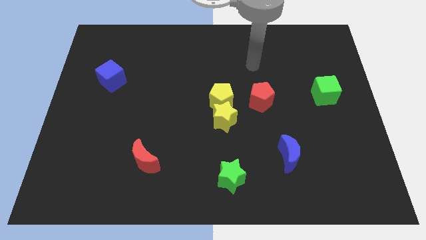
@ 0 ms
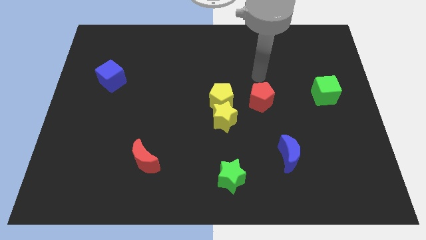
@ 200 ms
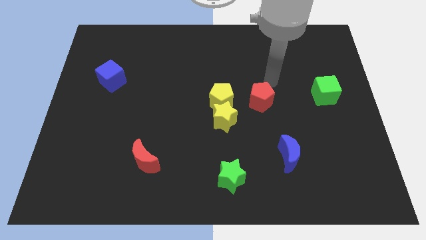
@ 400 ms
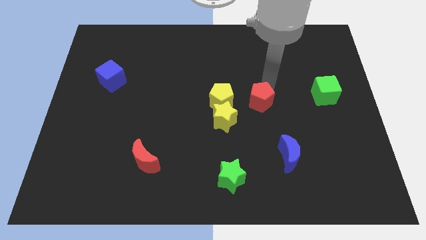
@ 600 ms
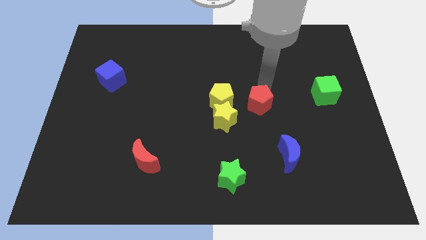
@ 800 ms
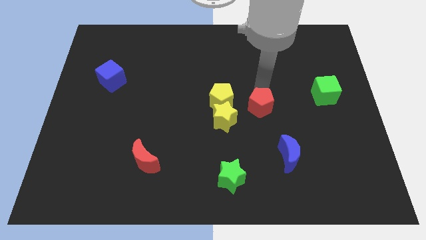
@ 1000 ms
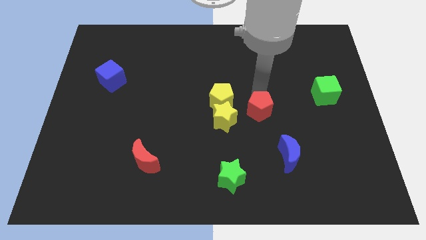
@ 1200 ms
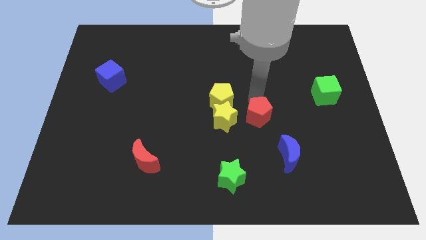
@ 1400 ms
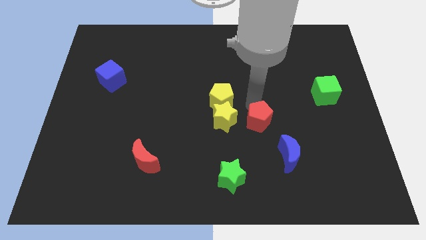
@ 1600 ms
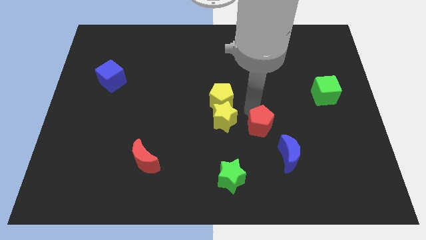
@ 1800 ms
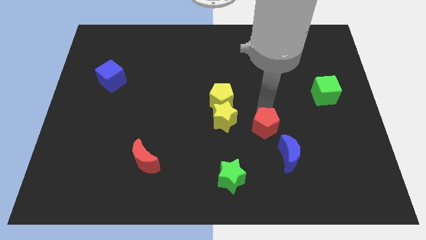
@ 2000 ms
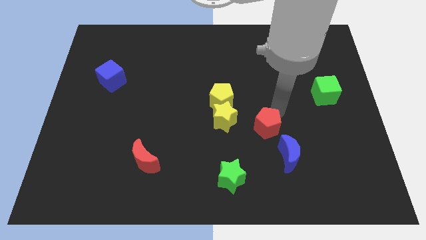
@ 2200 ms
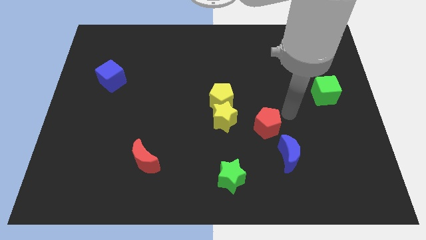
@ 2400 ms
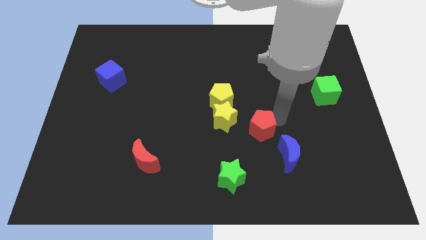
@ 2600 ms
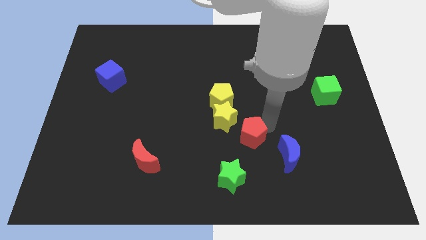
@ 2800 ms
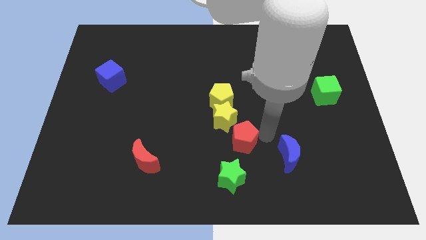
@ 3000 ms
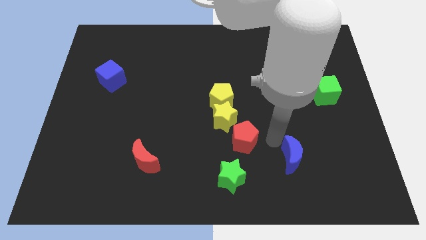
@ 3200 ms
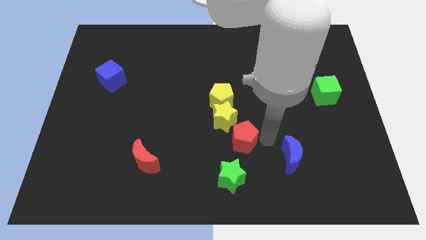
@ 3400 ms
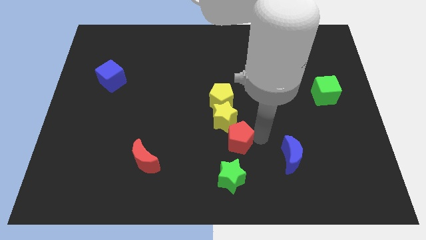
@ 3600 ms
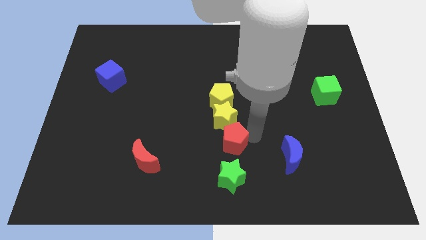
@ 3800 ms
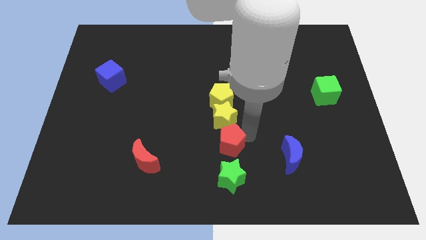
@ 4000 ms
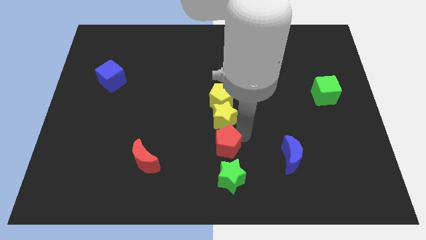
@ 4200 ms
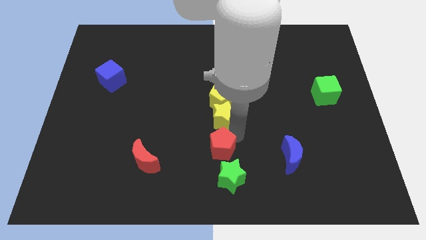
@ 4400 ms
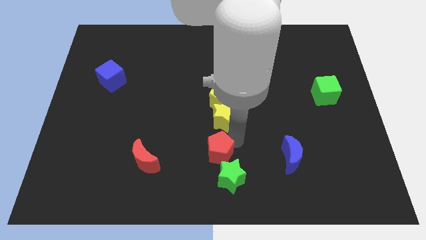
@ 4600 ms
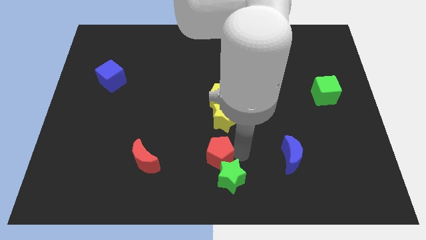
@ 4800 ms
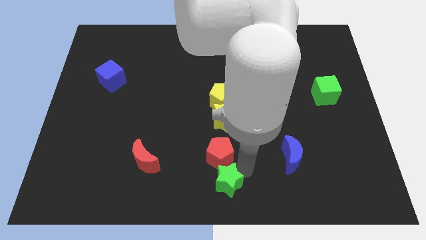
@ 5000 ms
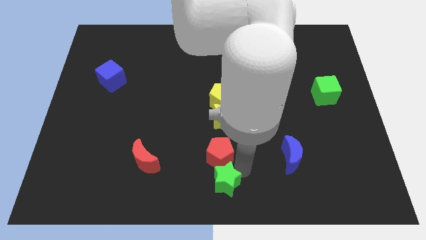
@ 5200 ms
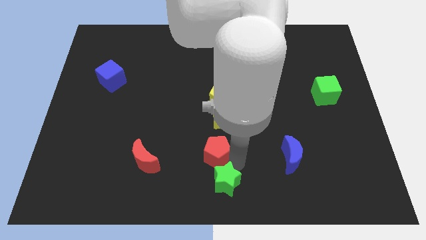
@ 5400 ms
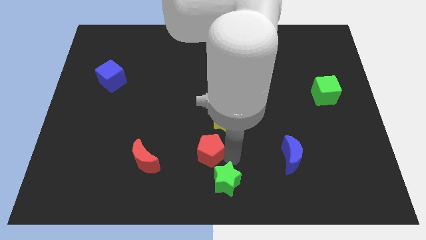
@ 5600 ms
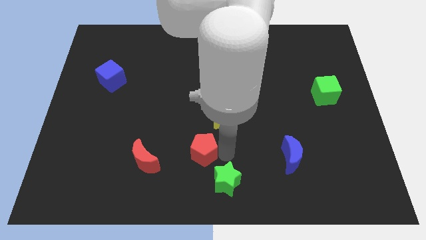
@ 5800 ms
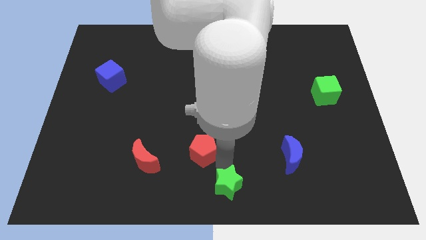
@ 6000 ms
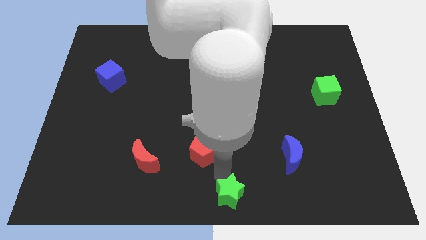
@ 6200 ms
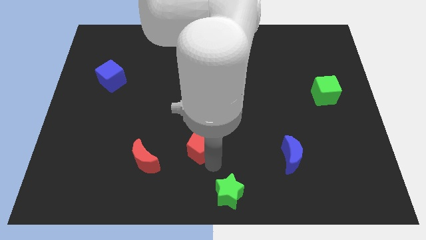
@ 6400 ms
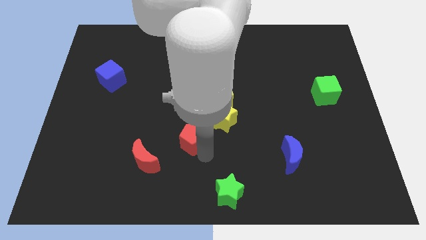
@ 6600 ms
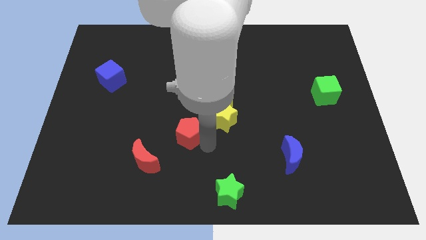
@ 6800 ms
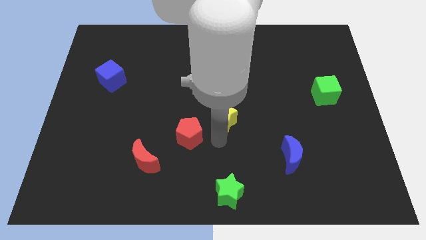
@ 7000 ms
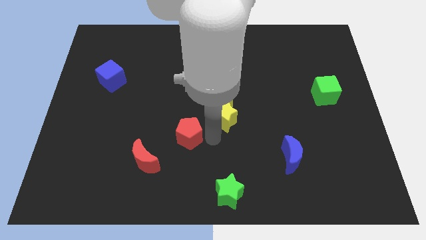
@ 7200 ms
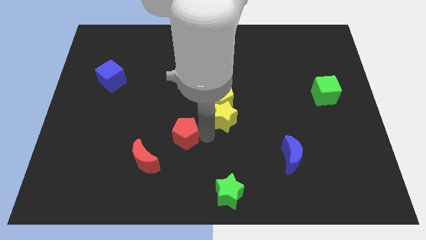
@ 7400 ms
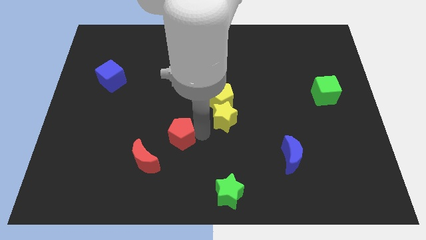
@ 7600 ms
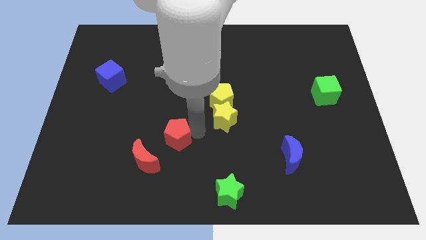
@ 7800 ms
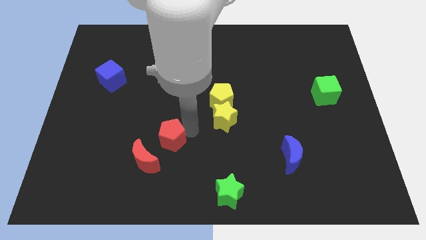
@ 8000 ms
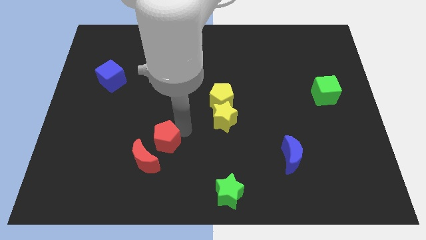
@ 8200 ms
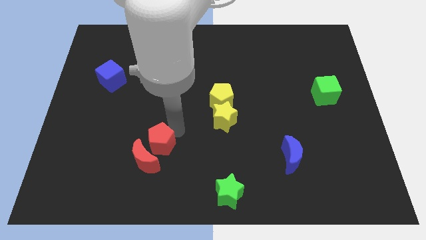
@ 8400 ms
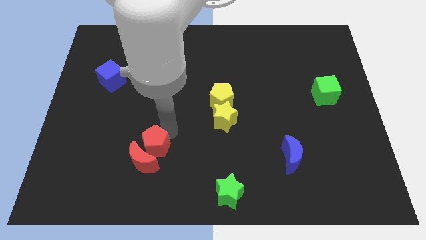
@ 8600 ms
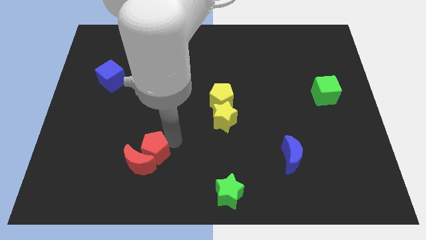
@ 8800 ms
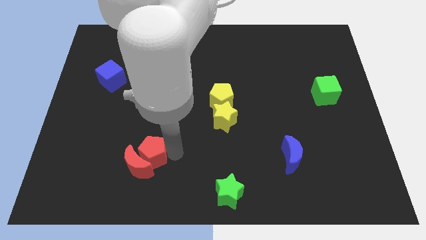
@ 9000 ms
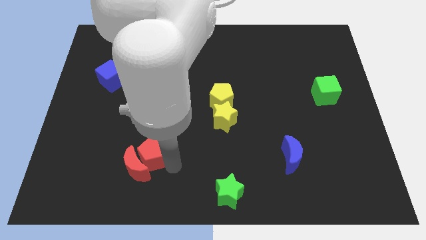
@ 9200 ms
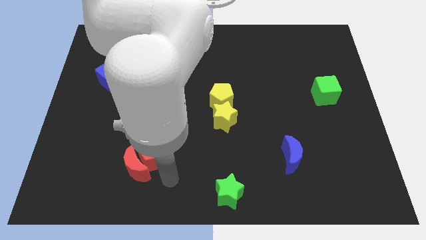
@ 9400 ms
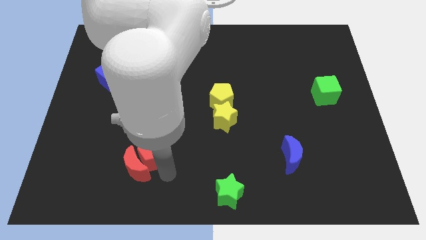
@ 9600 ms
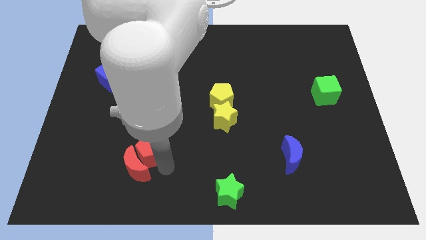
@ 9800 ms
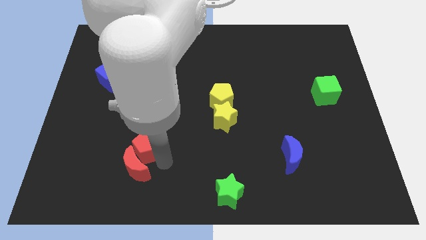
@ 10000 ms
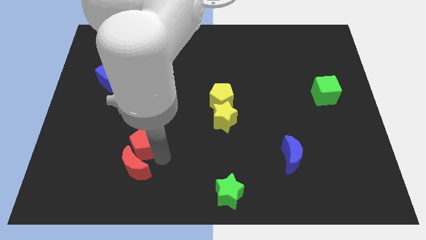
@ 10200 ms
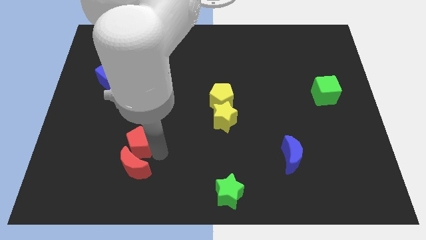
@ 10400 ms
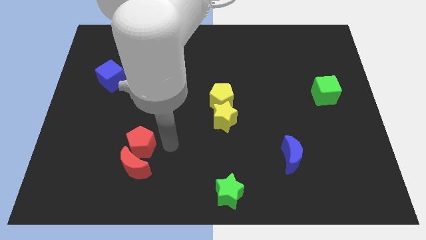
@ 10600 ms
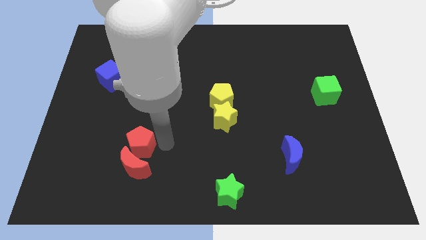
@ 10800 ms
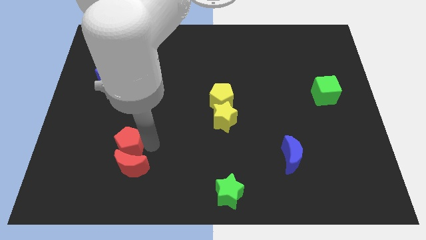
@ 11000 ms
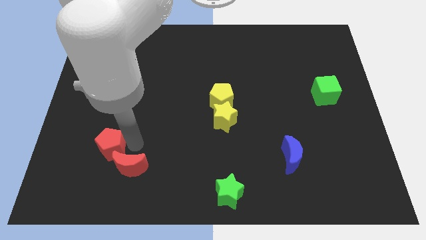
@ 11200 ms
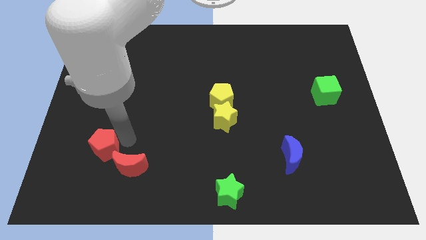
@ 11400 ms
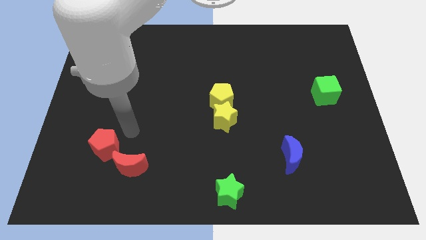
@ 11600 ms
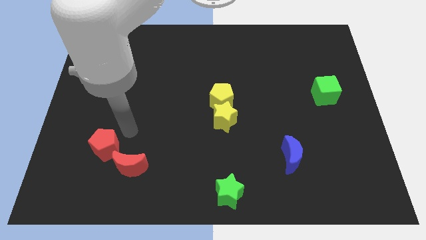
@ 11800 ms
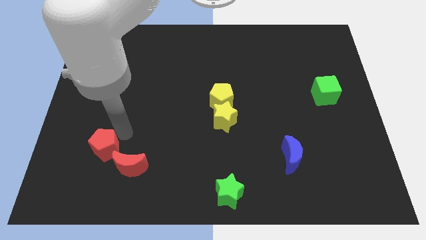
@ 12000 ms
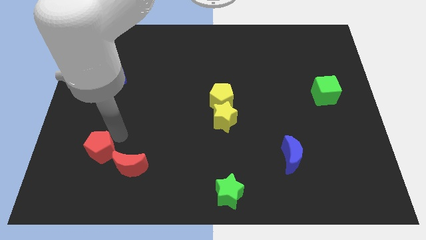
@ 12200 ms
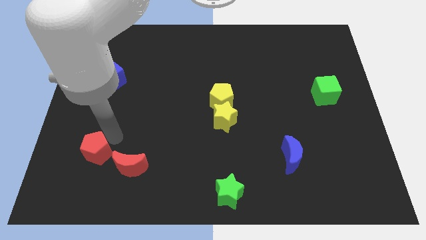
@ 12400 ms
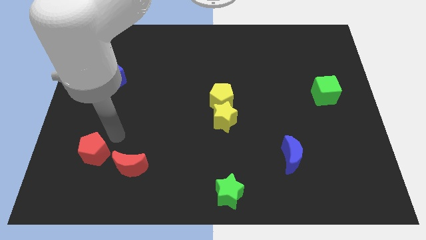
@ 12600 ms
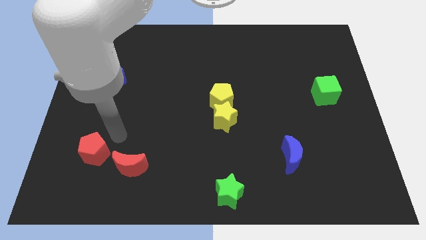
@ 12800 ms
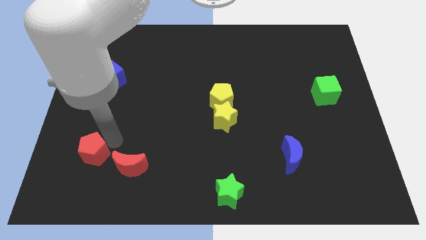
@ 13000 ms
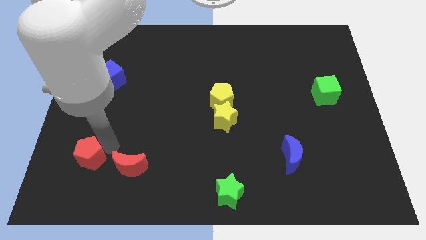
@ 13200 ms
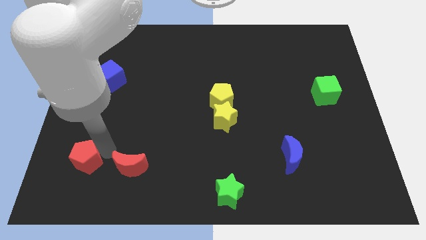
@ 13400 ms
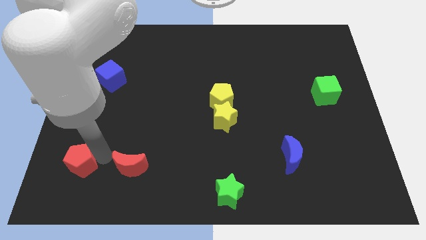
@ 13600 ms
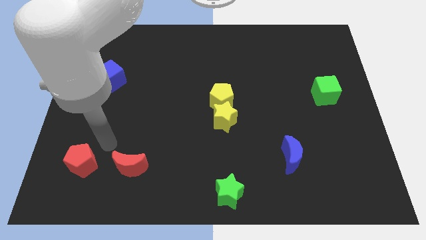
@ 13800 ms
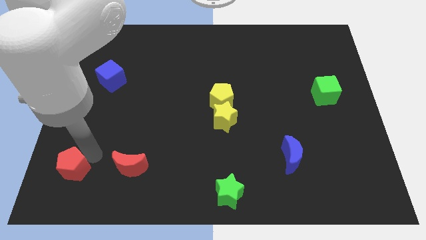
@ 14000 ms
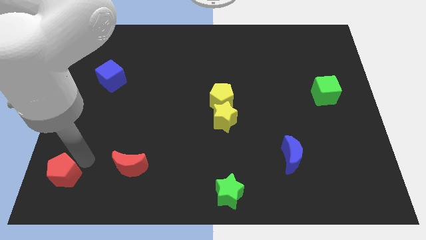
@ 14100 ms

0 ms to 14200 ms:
push the red pentagon to the bottom left of the board

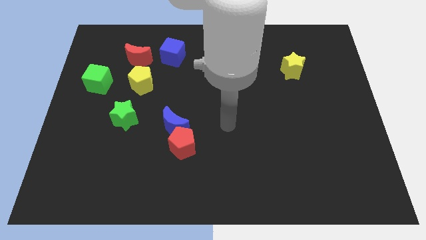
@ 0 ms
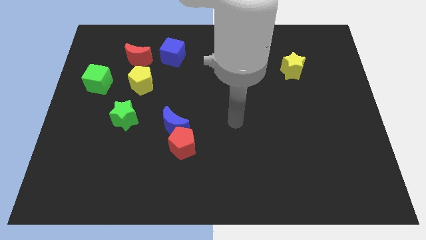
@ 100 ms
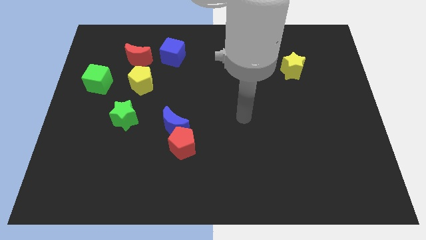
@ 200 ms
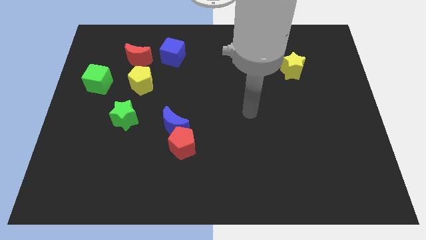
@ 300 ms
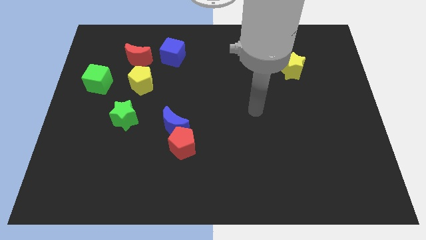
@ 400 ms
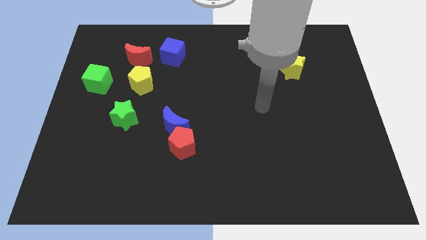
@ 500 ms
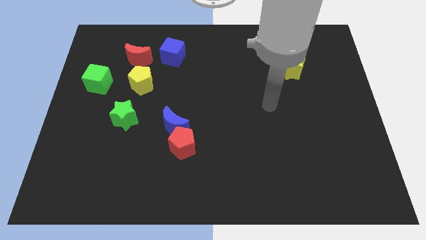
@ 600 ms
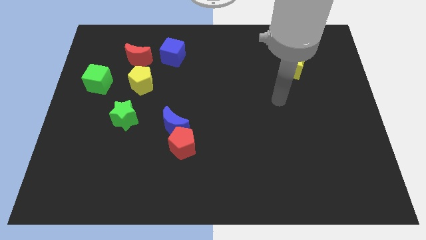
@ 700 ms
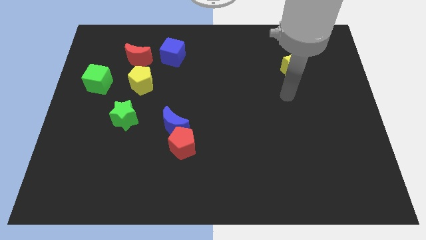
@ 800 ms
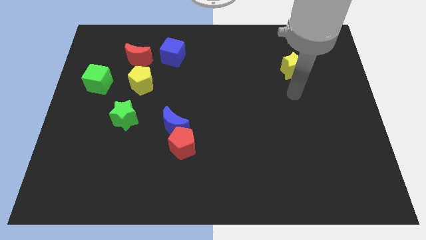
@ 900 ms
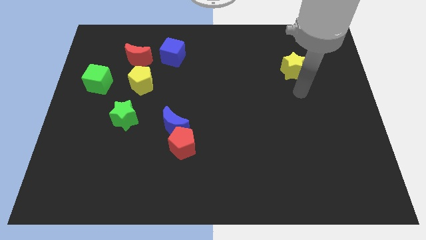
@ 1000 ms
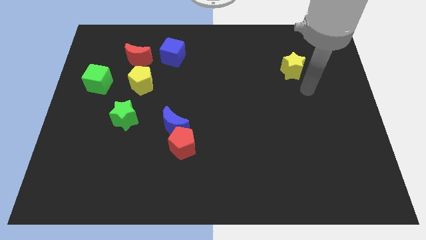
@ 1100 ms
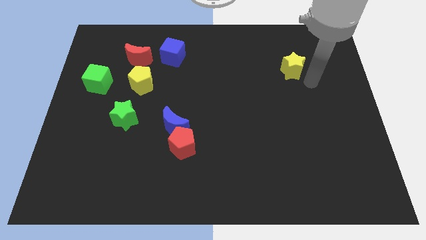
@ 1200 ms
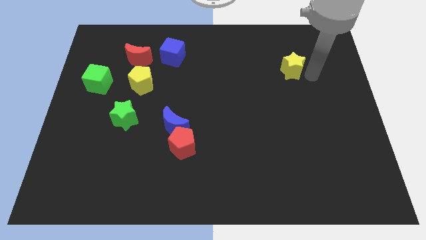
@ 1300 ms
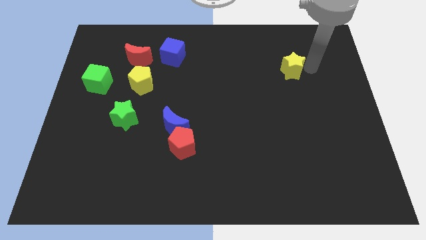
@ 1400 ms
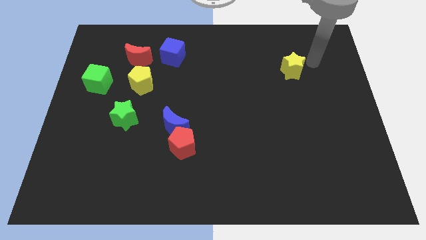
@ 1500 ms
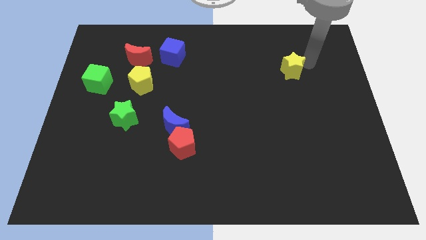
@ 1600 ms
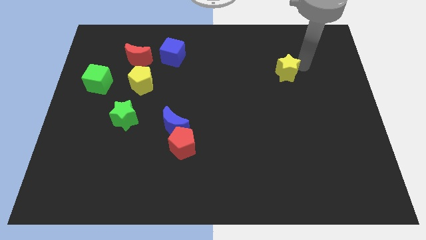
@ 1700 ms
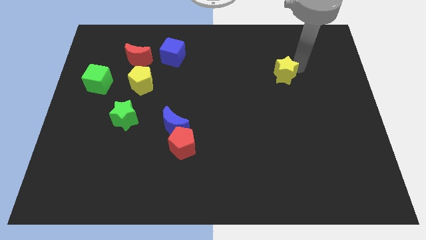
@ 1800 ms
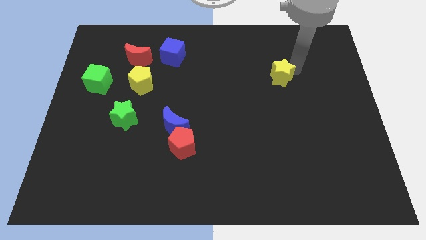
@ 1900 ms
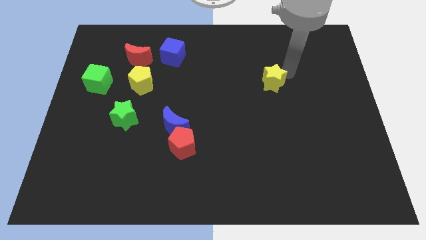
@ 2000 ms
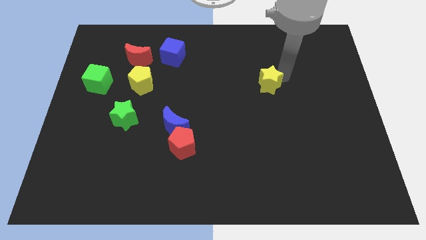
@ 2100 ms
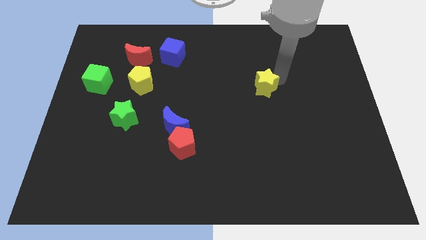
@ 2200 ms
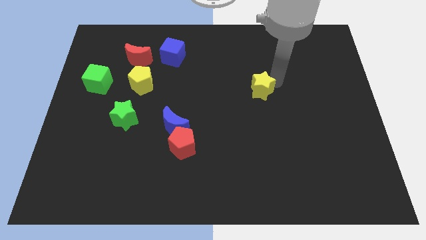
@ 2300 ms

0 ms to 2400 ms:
move the yellow star to the middle of the board
